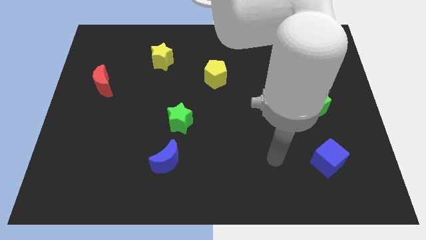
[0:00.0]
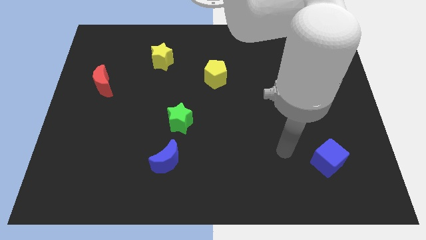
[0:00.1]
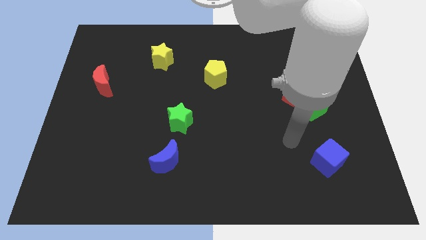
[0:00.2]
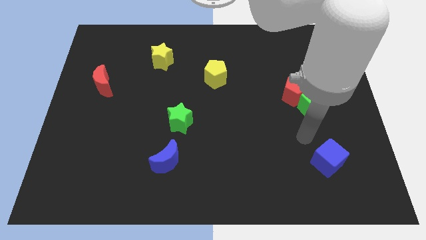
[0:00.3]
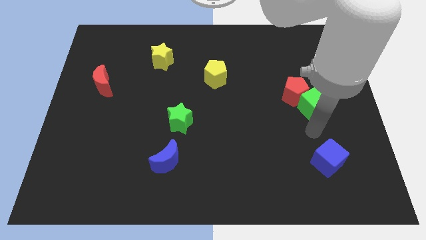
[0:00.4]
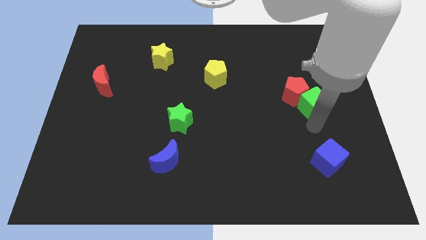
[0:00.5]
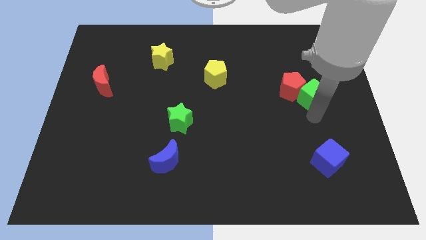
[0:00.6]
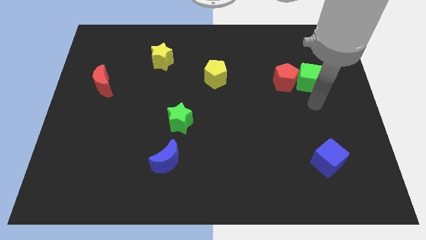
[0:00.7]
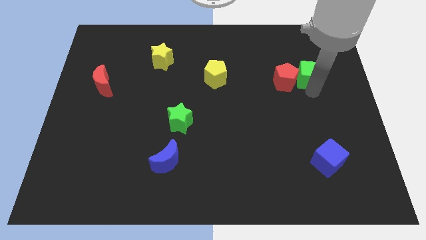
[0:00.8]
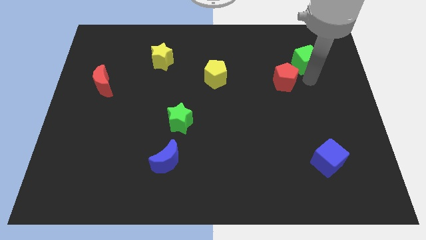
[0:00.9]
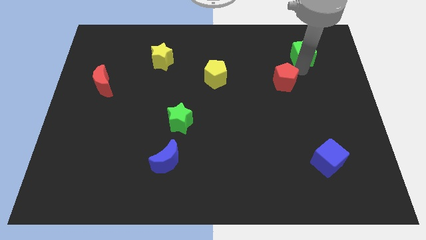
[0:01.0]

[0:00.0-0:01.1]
separate the red pentagon from the green cube

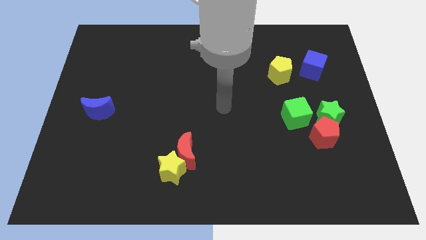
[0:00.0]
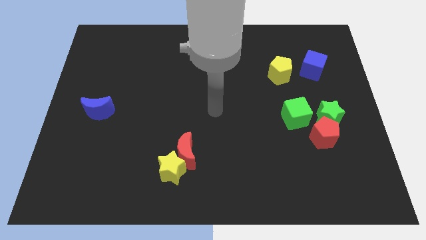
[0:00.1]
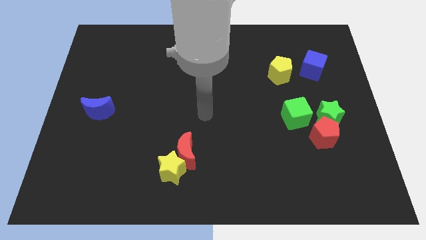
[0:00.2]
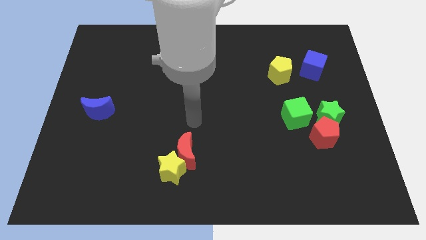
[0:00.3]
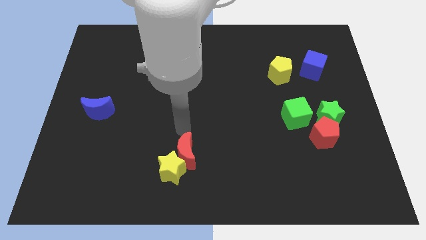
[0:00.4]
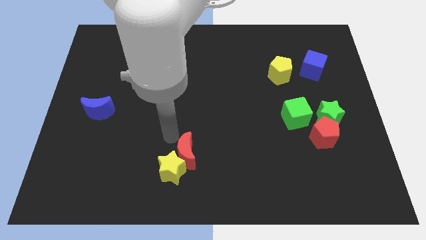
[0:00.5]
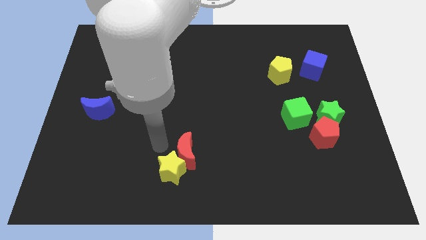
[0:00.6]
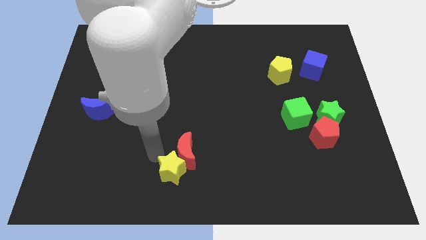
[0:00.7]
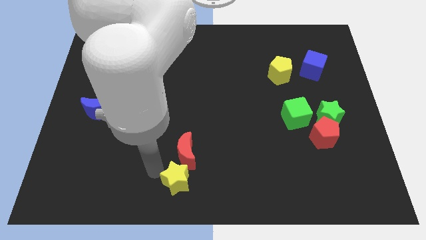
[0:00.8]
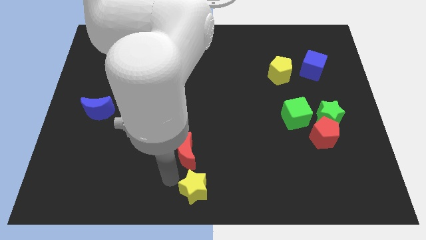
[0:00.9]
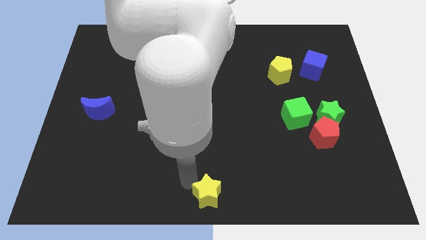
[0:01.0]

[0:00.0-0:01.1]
separate the red moon from the yellow star

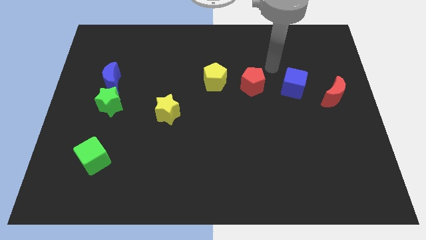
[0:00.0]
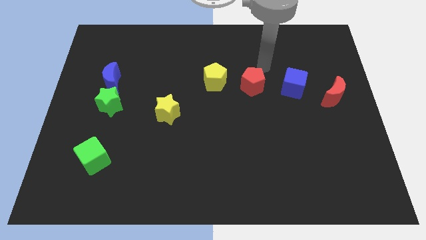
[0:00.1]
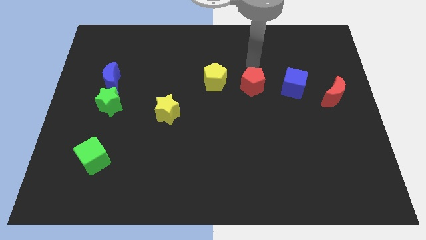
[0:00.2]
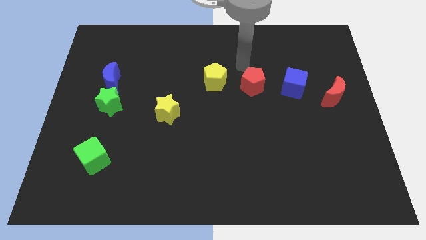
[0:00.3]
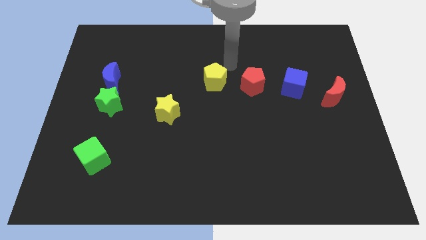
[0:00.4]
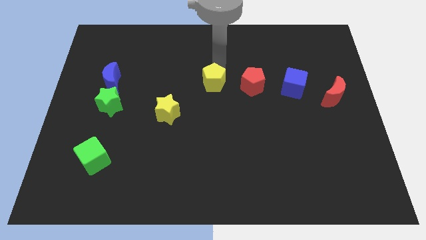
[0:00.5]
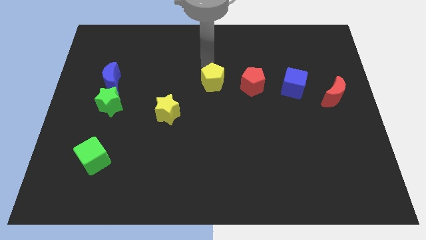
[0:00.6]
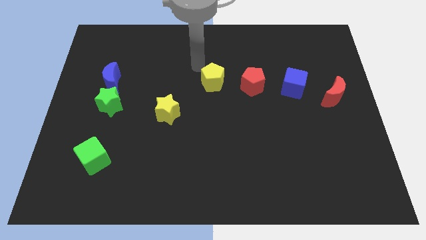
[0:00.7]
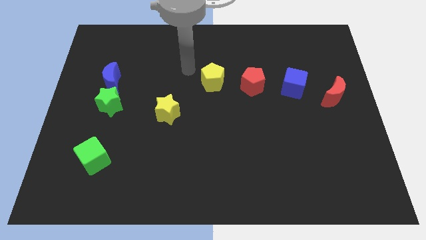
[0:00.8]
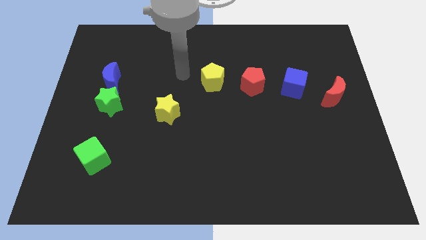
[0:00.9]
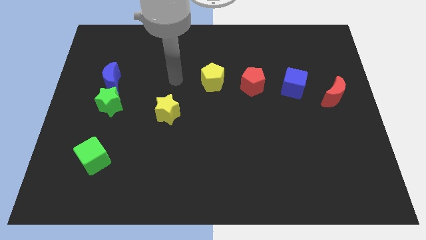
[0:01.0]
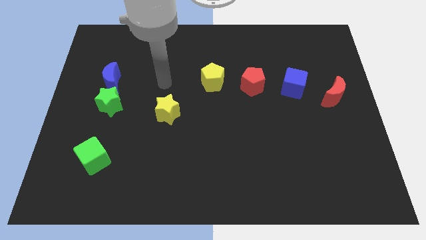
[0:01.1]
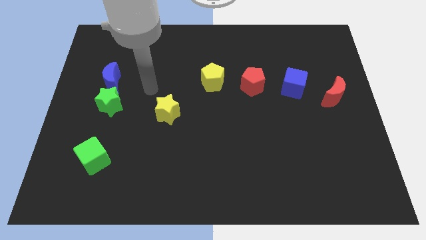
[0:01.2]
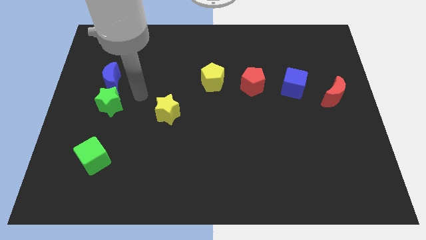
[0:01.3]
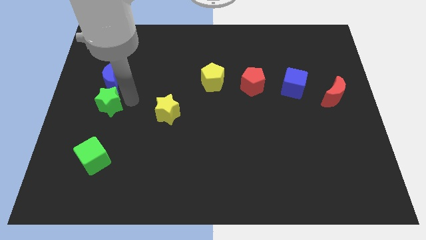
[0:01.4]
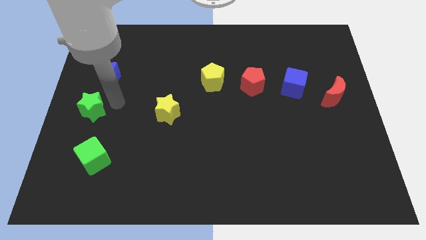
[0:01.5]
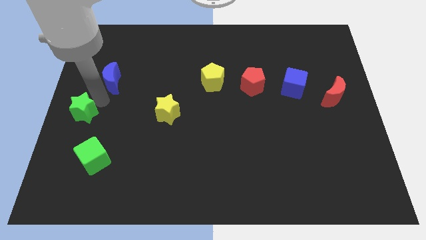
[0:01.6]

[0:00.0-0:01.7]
move the blue moon away from the green star

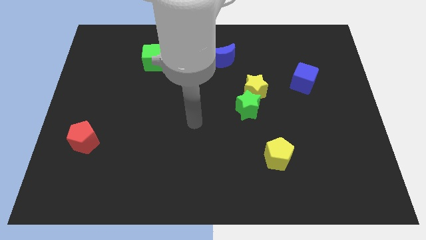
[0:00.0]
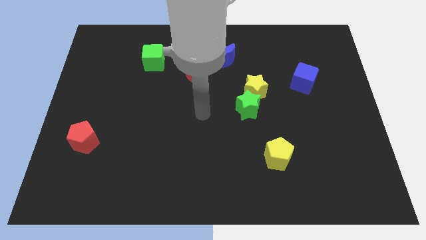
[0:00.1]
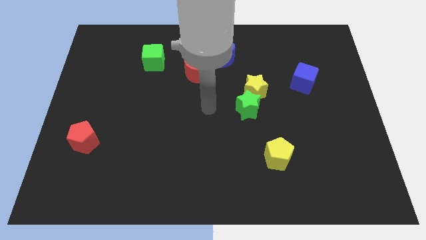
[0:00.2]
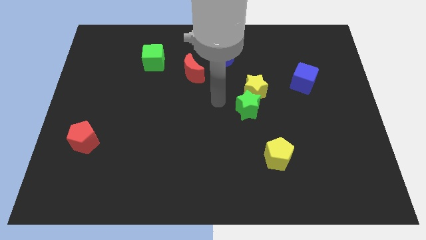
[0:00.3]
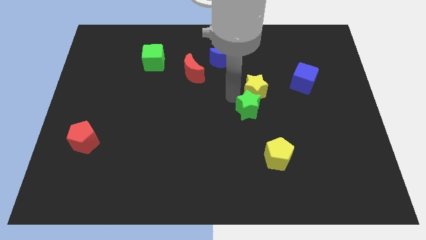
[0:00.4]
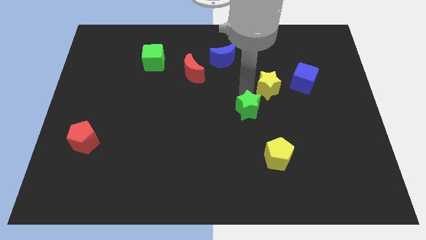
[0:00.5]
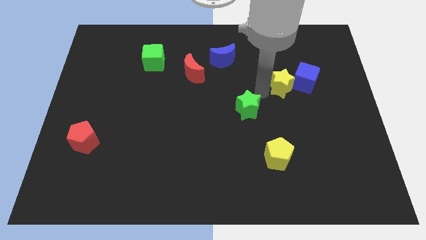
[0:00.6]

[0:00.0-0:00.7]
move the green star away from the yellow star

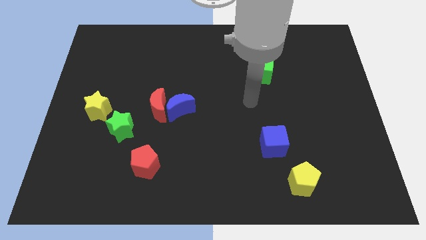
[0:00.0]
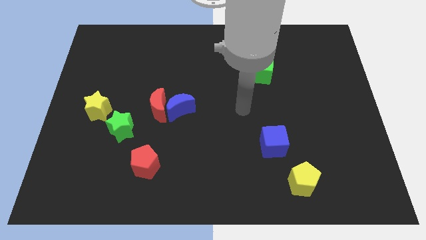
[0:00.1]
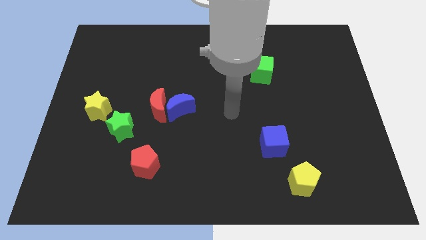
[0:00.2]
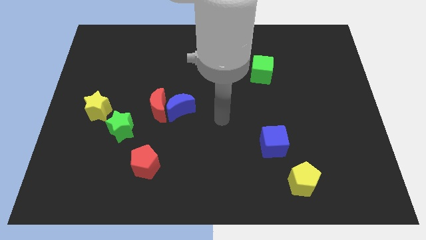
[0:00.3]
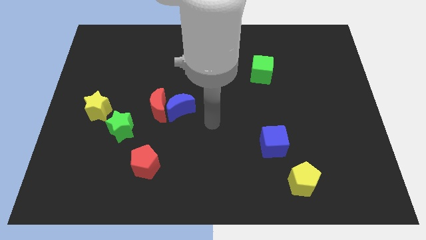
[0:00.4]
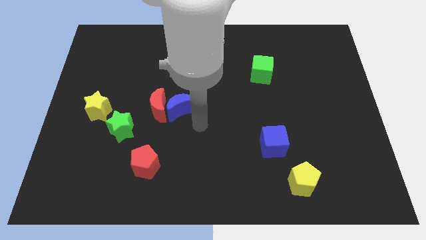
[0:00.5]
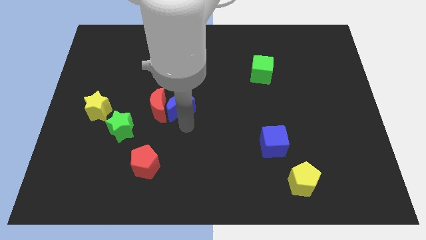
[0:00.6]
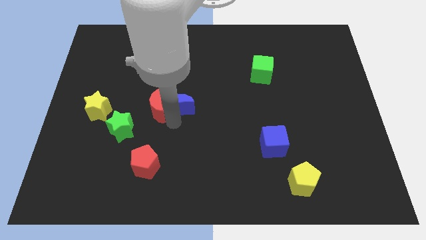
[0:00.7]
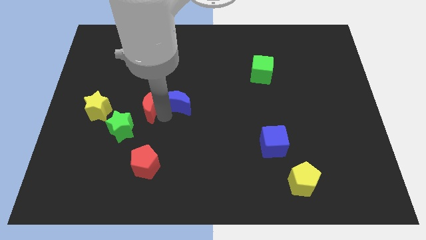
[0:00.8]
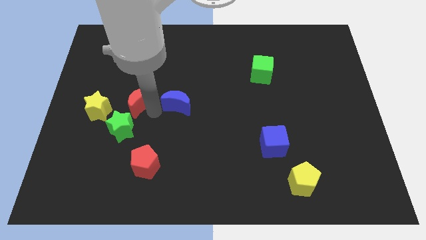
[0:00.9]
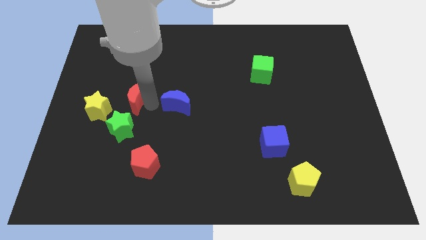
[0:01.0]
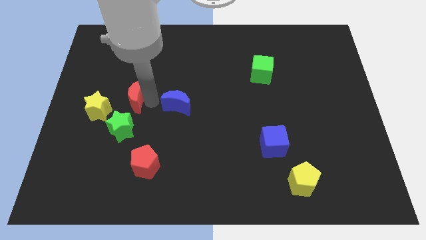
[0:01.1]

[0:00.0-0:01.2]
move the blue moon away from the red moon

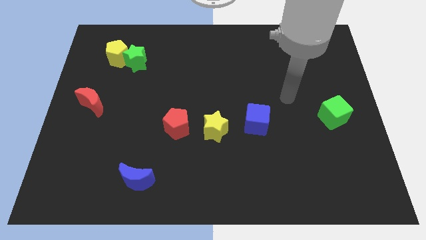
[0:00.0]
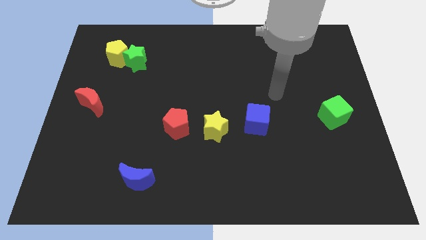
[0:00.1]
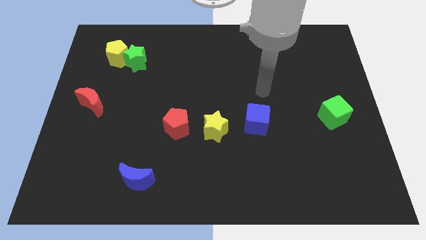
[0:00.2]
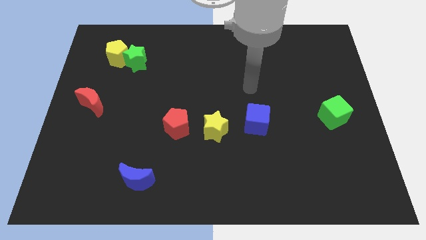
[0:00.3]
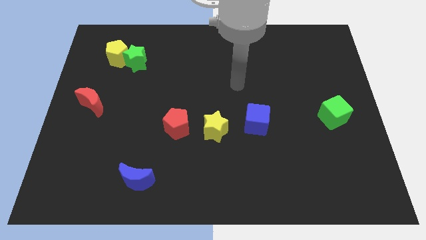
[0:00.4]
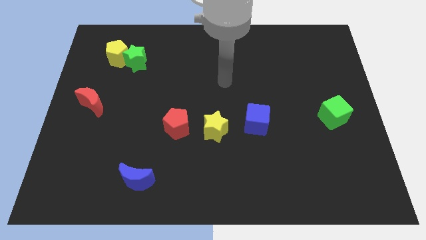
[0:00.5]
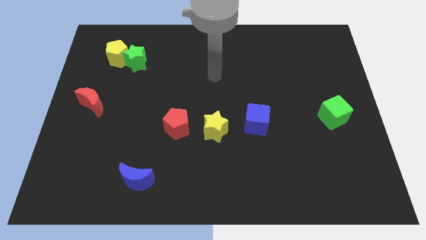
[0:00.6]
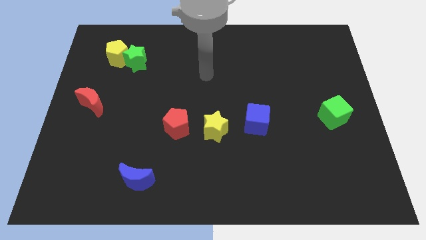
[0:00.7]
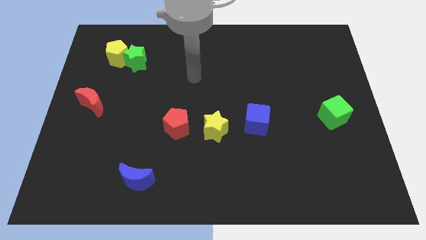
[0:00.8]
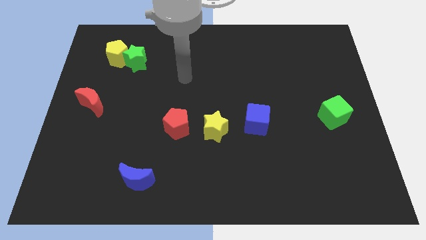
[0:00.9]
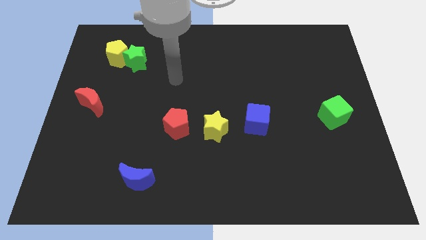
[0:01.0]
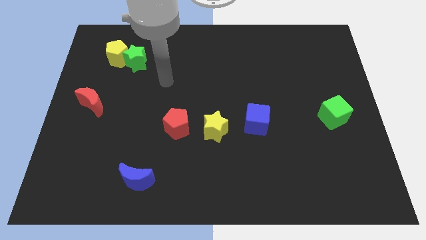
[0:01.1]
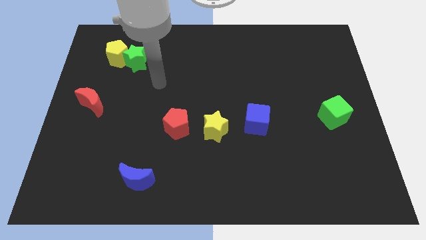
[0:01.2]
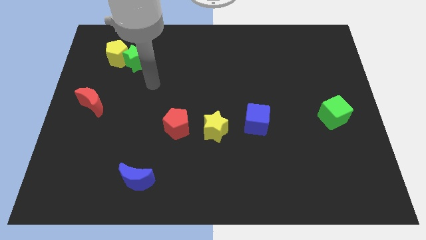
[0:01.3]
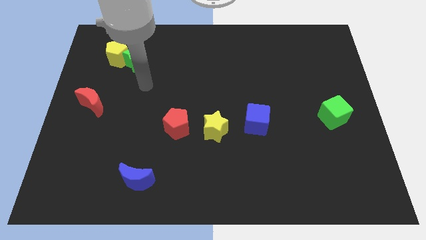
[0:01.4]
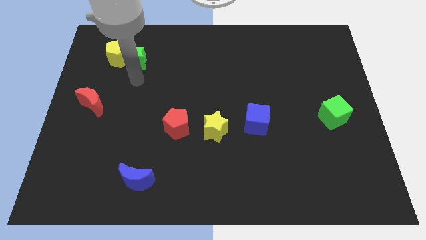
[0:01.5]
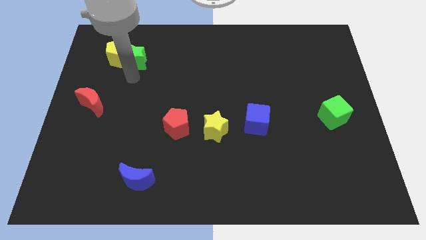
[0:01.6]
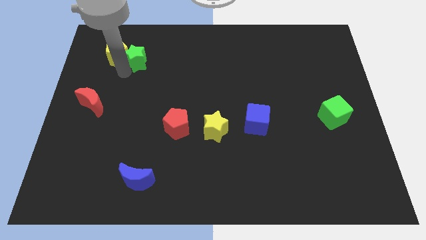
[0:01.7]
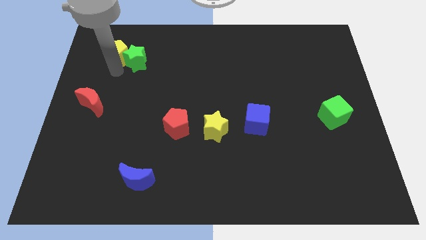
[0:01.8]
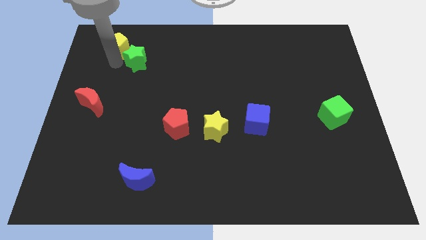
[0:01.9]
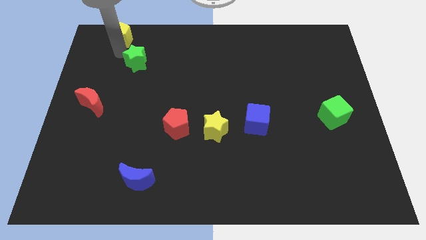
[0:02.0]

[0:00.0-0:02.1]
separate the green star from the yellow pentagon

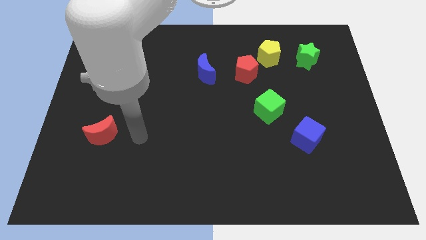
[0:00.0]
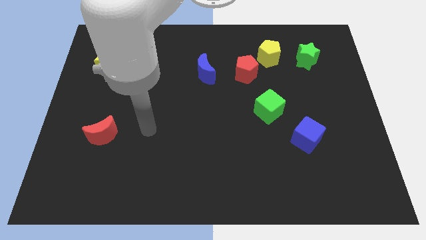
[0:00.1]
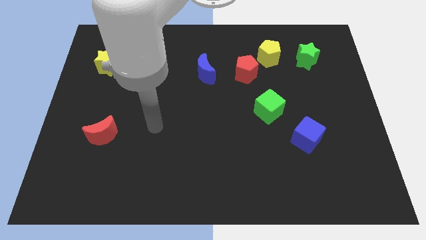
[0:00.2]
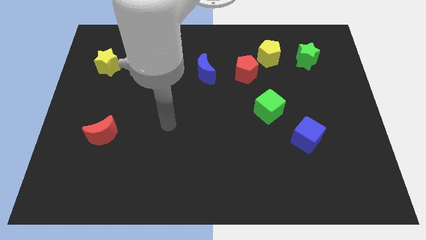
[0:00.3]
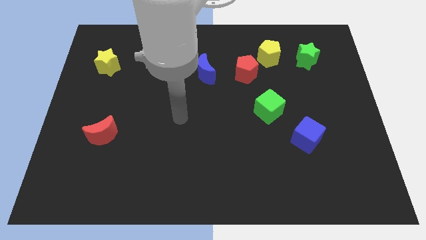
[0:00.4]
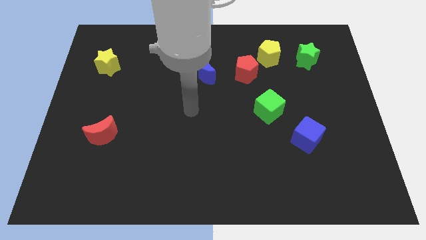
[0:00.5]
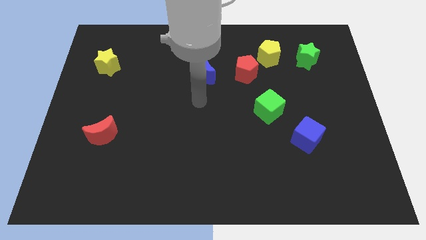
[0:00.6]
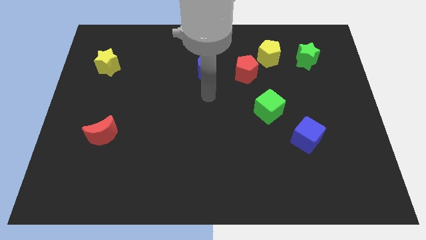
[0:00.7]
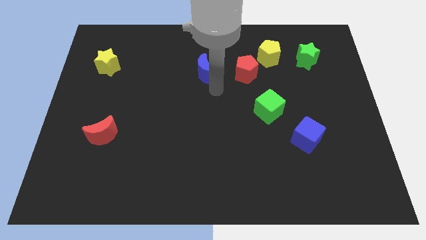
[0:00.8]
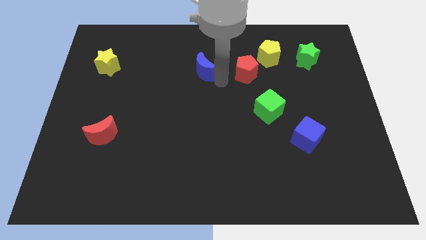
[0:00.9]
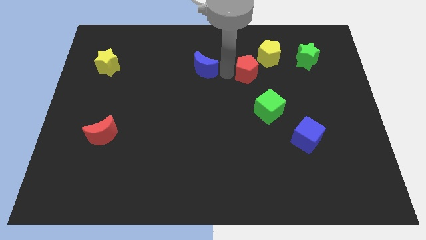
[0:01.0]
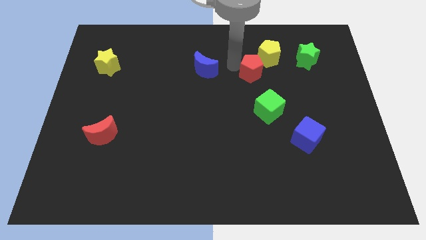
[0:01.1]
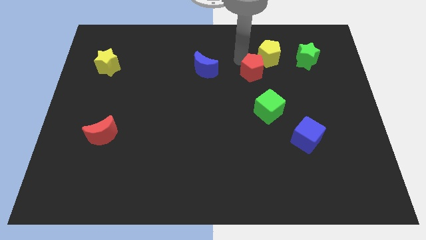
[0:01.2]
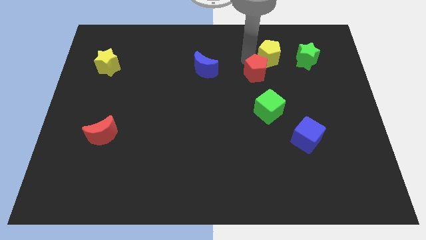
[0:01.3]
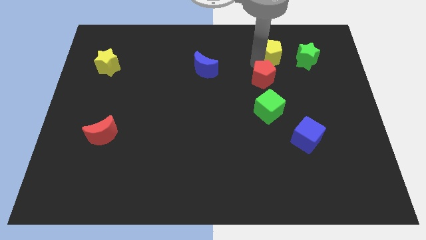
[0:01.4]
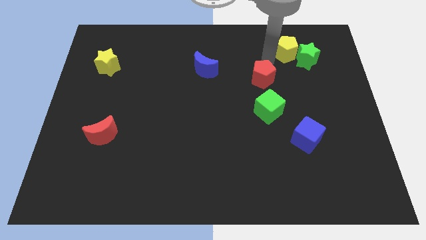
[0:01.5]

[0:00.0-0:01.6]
separate the red pentagon from the yellow pentagon
